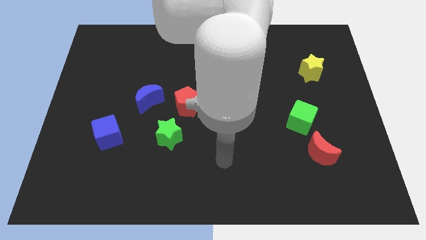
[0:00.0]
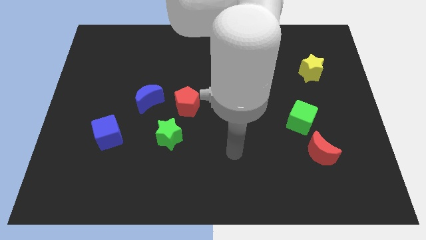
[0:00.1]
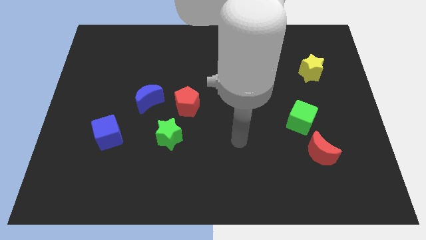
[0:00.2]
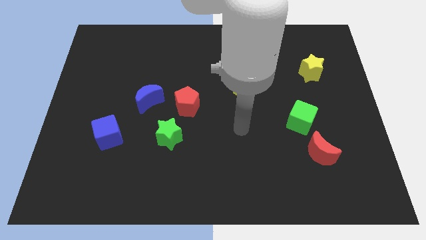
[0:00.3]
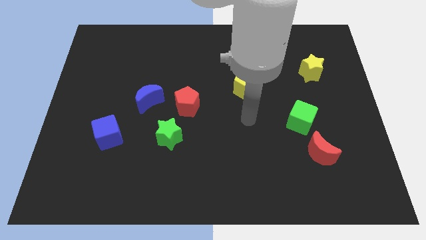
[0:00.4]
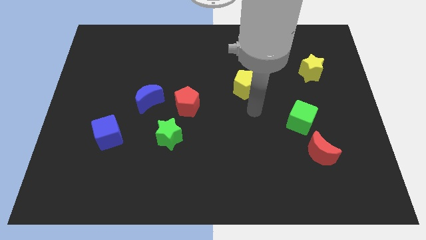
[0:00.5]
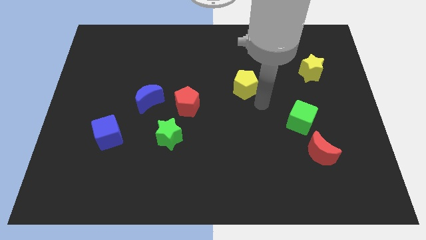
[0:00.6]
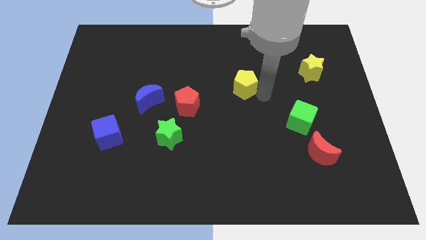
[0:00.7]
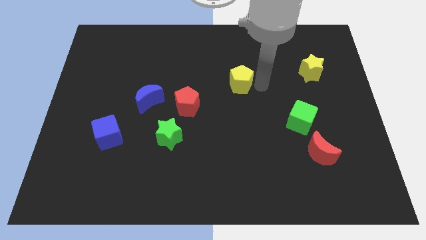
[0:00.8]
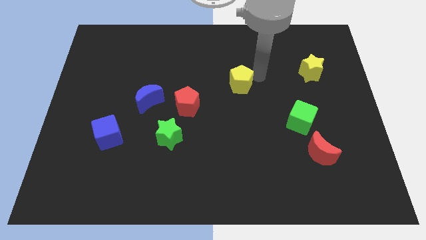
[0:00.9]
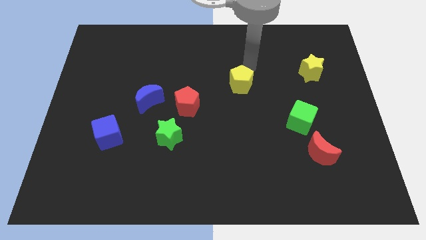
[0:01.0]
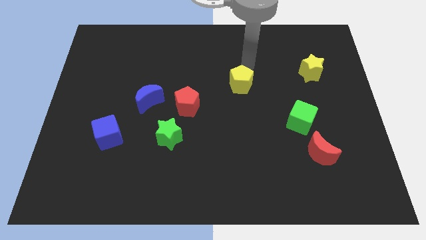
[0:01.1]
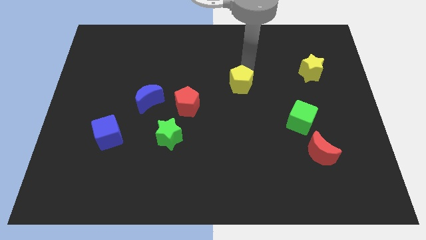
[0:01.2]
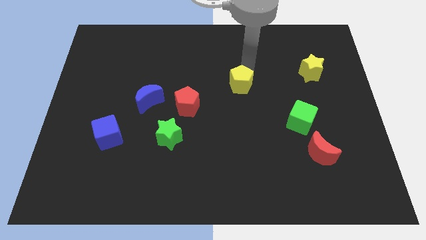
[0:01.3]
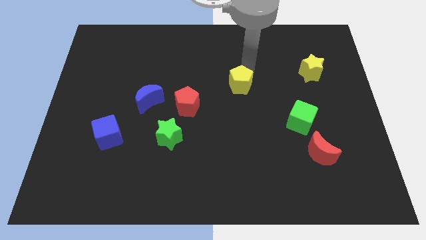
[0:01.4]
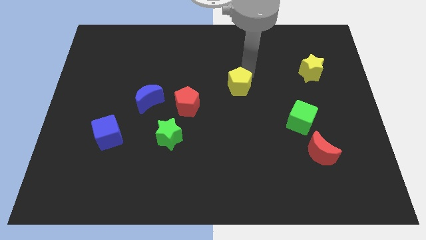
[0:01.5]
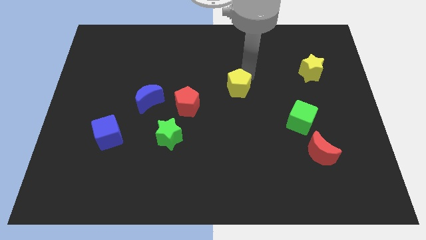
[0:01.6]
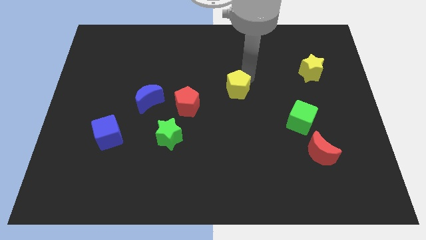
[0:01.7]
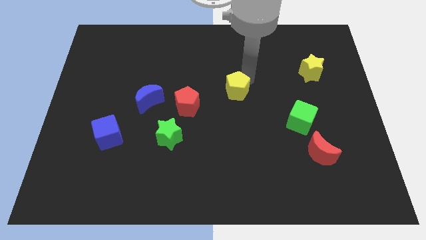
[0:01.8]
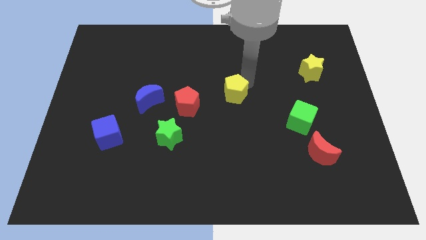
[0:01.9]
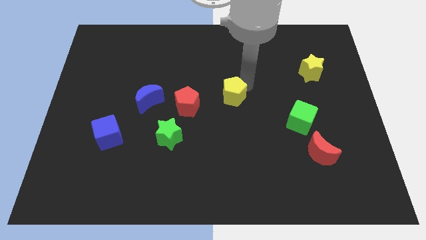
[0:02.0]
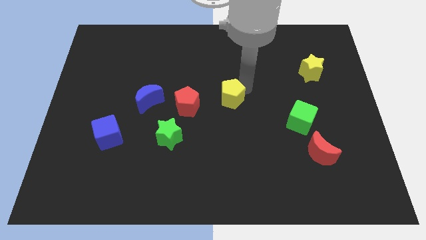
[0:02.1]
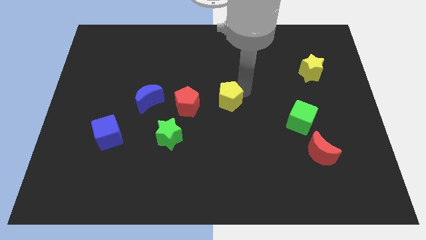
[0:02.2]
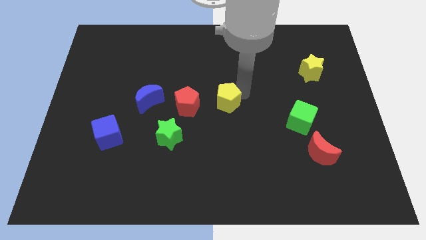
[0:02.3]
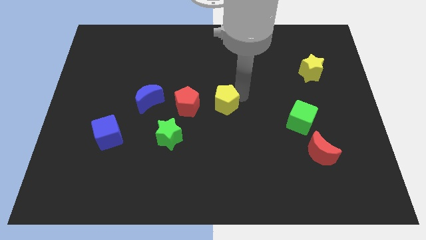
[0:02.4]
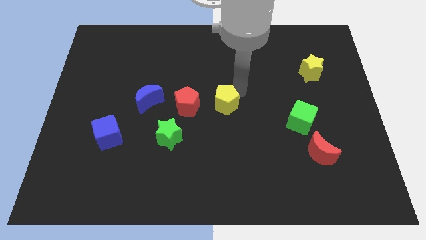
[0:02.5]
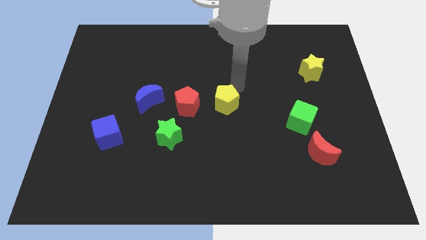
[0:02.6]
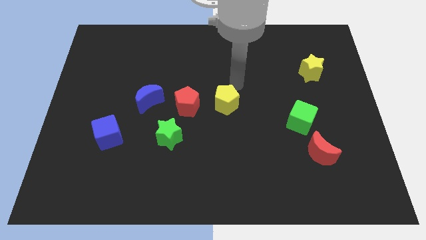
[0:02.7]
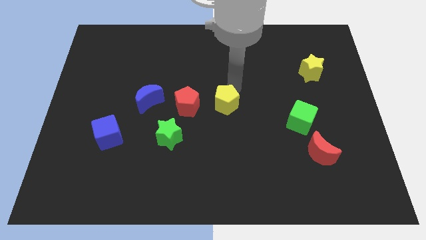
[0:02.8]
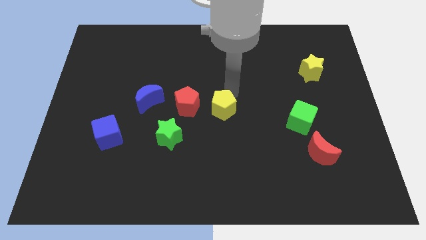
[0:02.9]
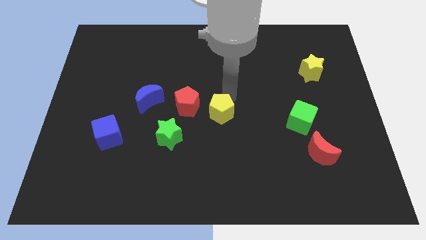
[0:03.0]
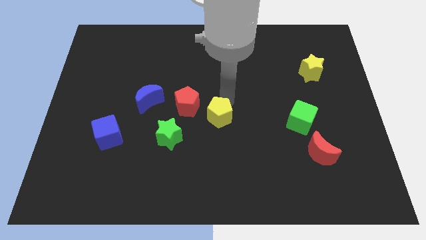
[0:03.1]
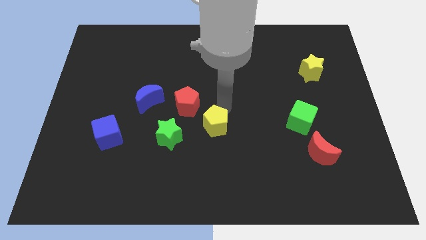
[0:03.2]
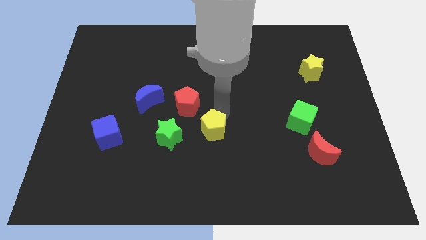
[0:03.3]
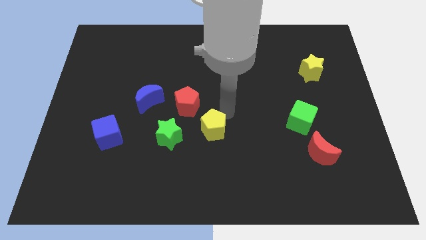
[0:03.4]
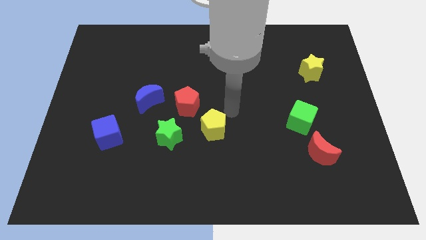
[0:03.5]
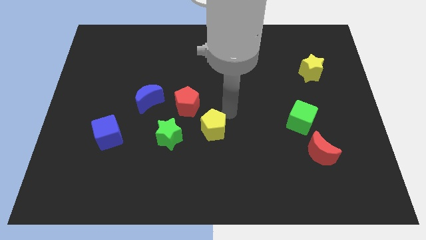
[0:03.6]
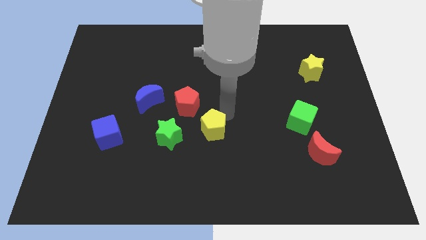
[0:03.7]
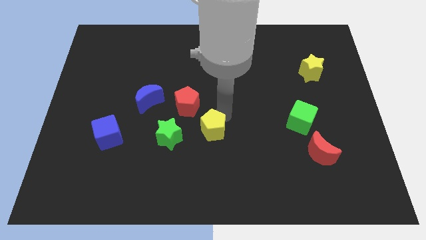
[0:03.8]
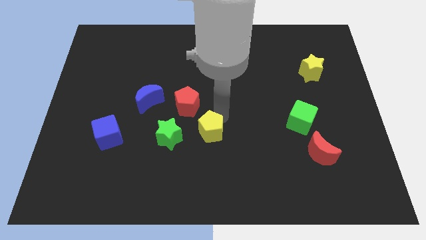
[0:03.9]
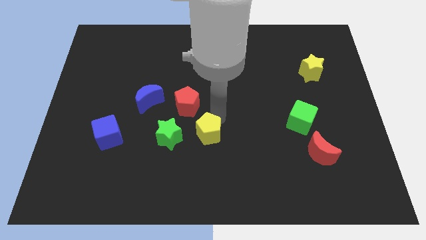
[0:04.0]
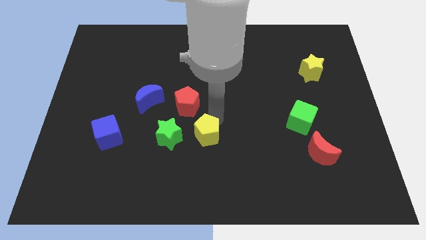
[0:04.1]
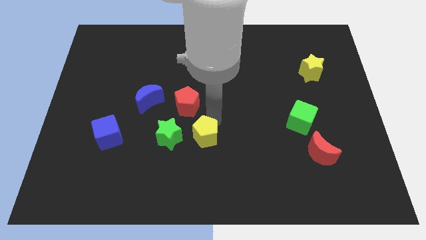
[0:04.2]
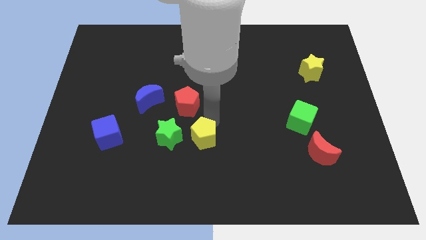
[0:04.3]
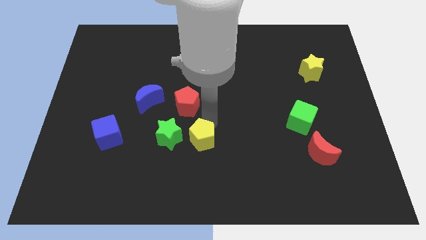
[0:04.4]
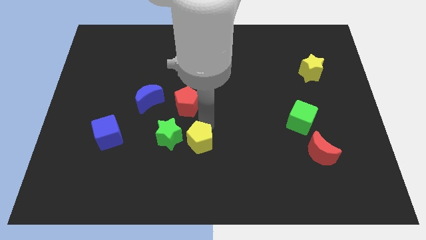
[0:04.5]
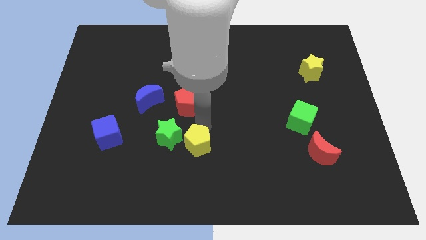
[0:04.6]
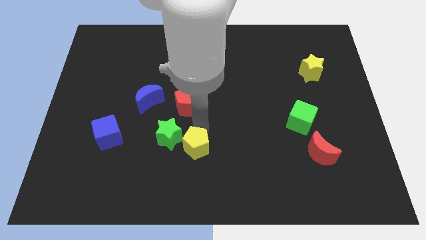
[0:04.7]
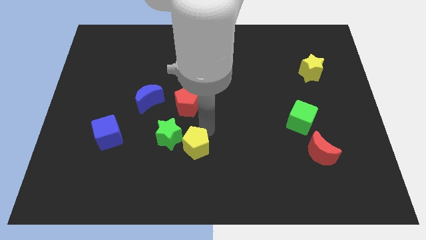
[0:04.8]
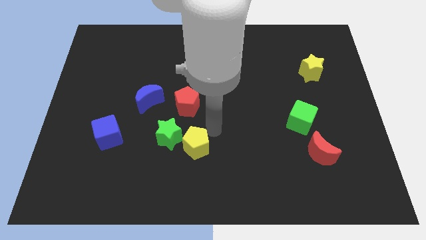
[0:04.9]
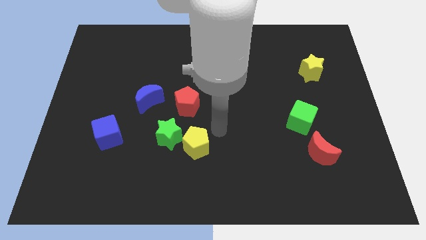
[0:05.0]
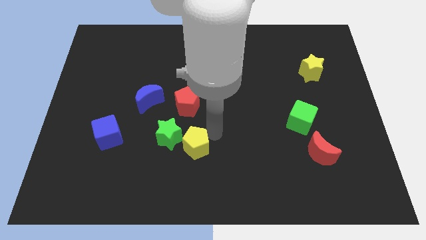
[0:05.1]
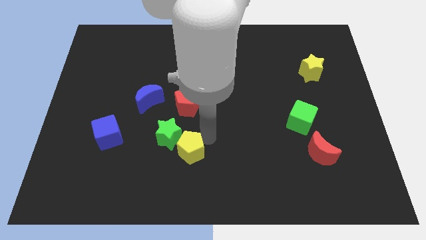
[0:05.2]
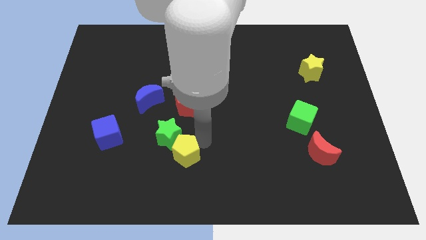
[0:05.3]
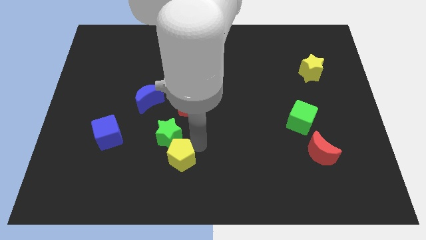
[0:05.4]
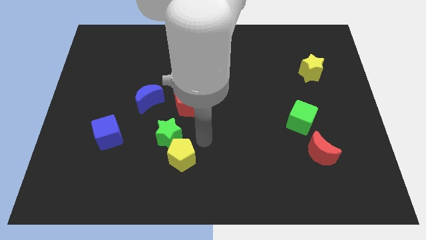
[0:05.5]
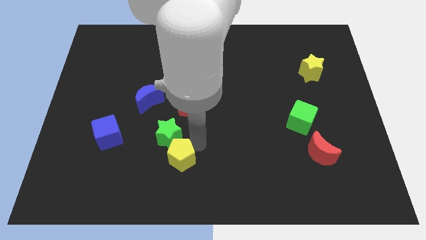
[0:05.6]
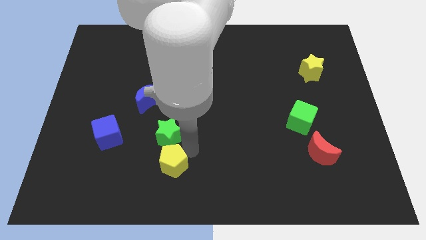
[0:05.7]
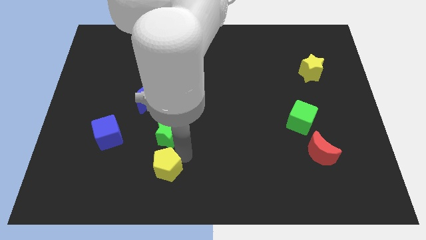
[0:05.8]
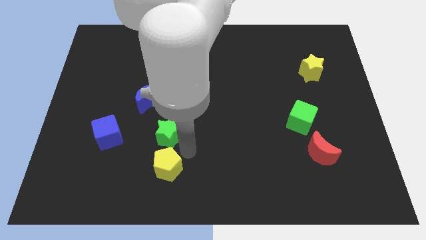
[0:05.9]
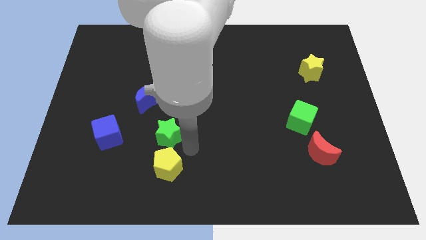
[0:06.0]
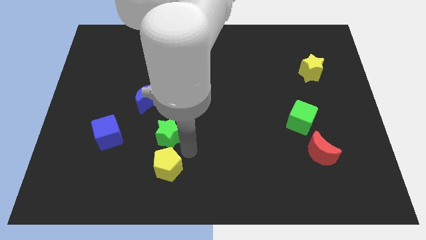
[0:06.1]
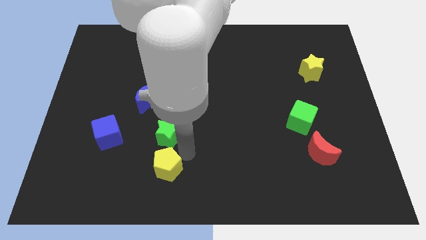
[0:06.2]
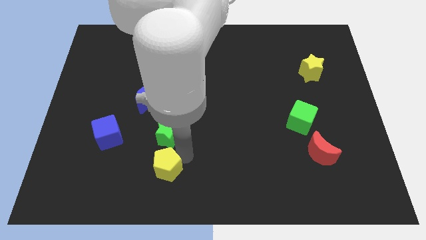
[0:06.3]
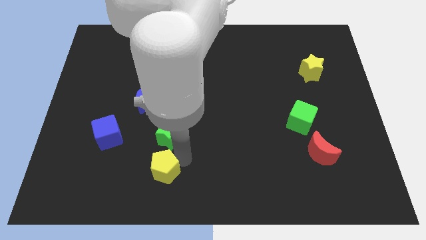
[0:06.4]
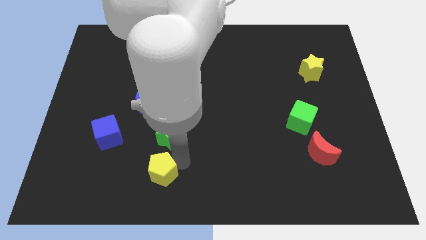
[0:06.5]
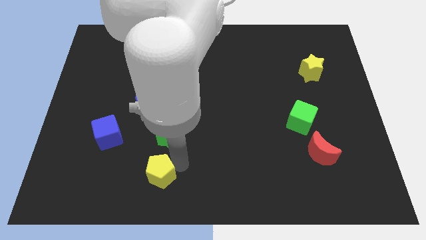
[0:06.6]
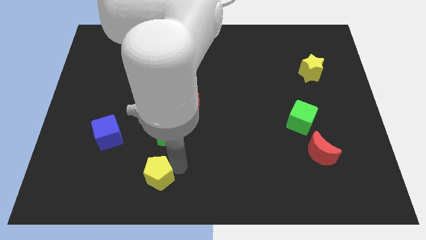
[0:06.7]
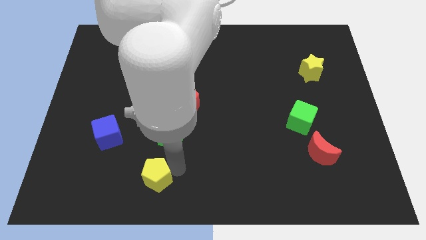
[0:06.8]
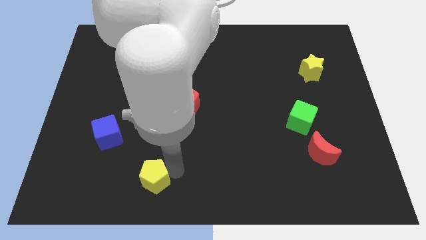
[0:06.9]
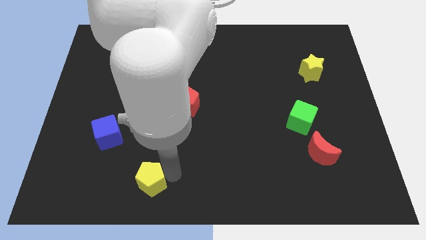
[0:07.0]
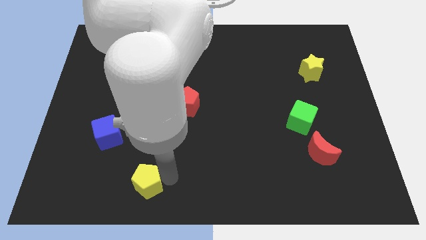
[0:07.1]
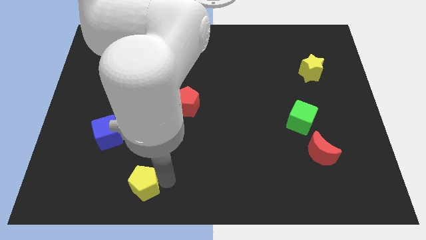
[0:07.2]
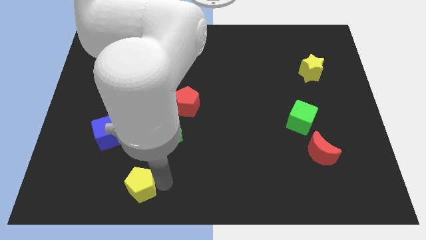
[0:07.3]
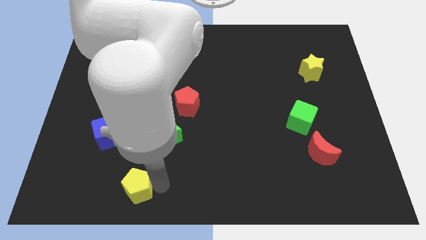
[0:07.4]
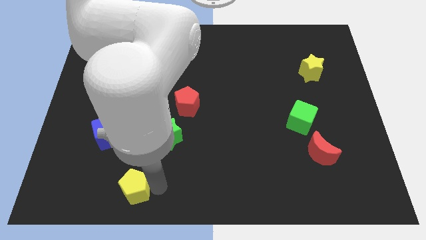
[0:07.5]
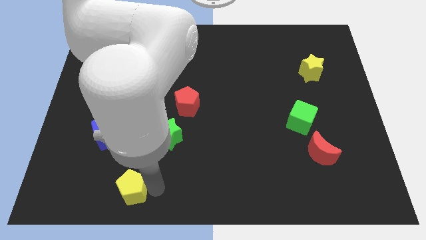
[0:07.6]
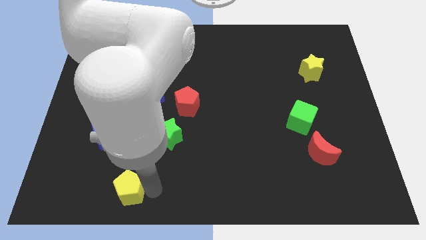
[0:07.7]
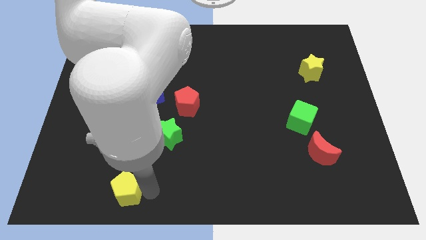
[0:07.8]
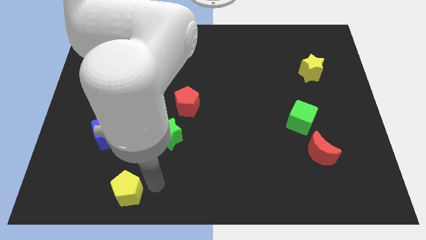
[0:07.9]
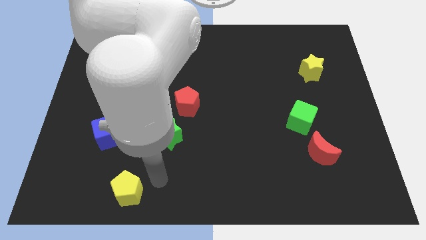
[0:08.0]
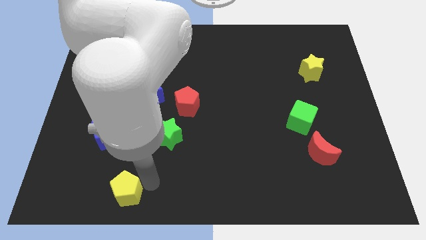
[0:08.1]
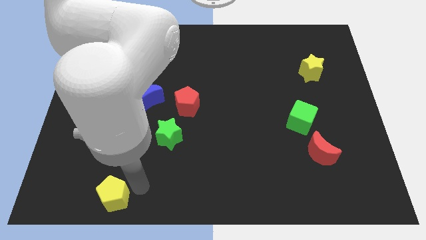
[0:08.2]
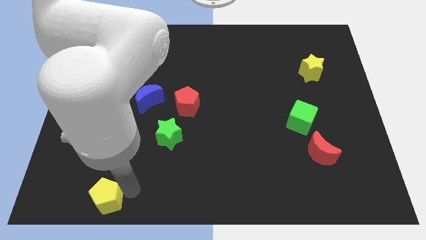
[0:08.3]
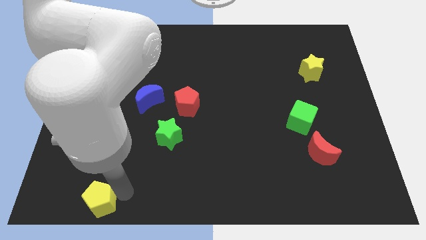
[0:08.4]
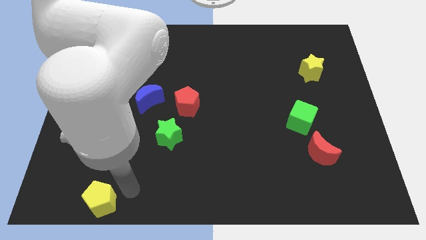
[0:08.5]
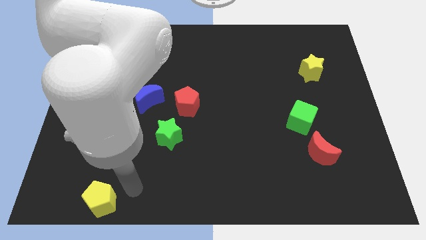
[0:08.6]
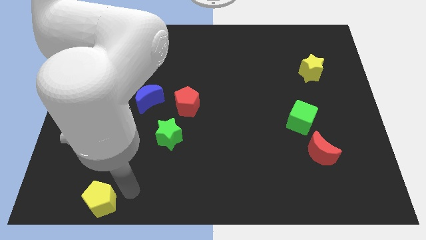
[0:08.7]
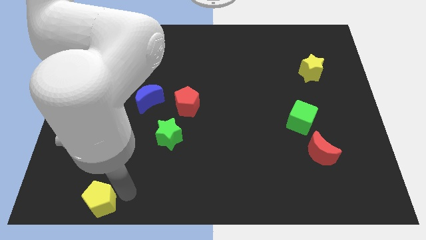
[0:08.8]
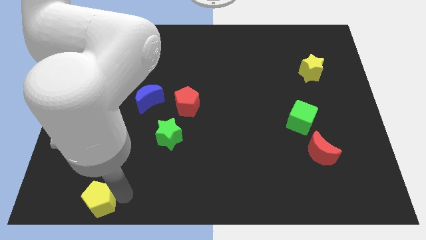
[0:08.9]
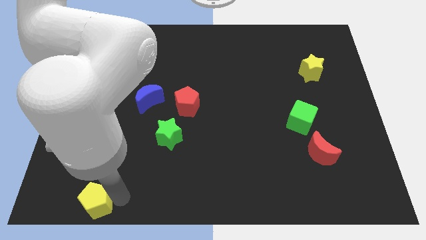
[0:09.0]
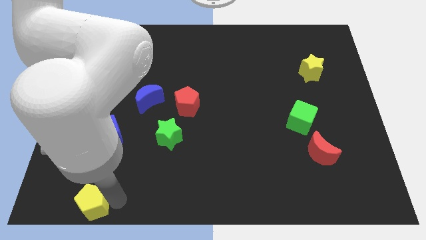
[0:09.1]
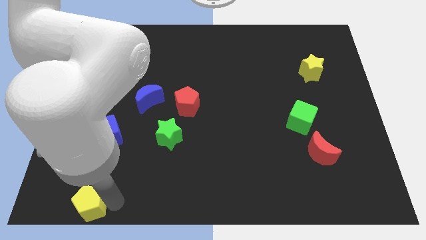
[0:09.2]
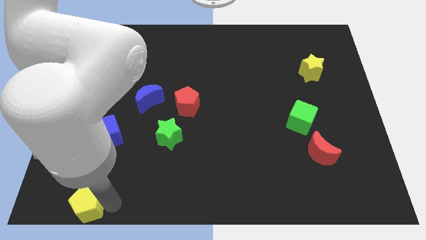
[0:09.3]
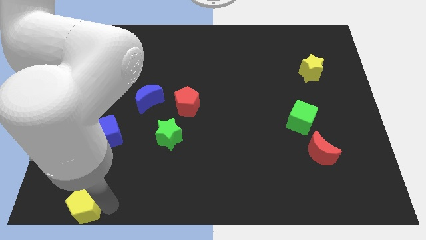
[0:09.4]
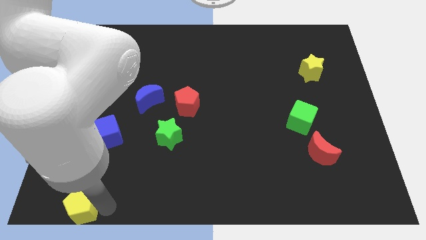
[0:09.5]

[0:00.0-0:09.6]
push the yellow pentagon to the bottom left of the board
